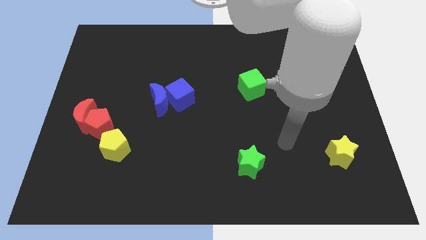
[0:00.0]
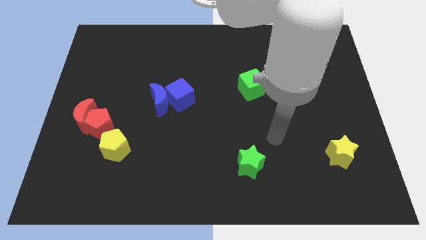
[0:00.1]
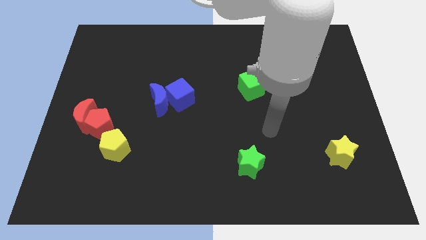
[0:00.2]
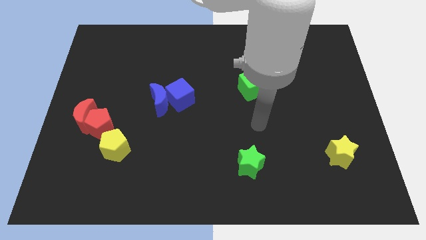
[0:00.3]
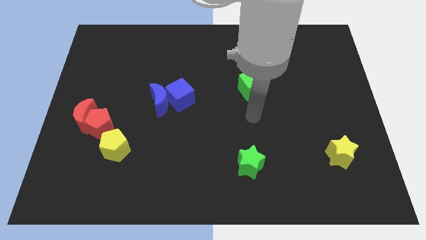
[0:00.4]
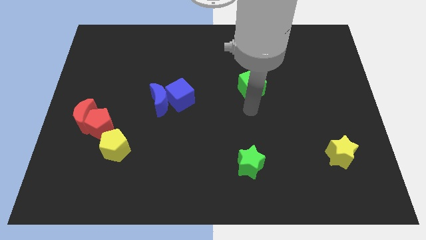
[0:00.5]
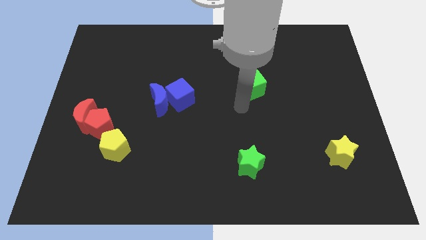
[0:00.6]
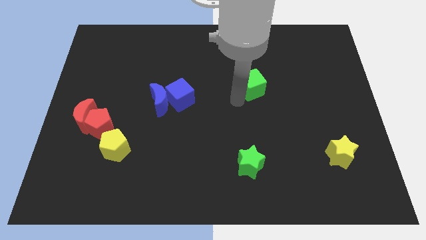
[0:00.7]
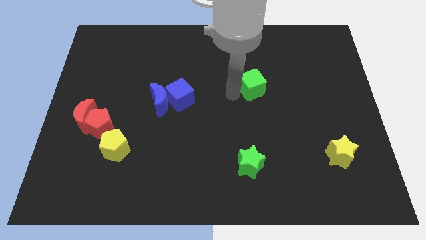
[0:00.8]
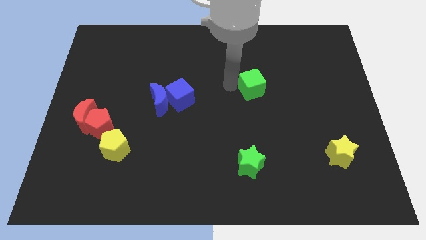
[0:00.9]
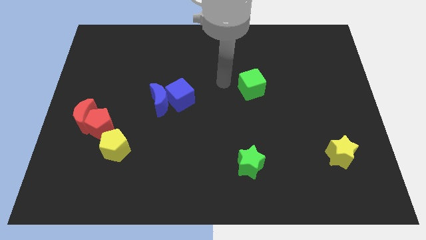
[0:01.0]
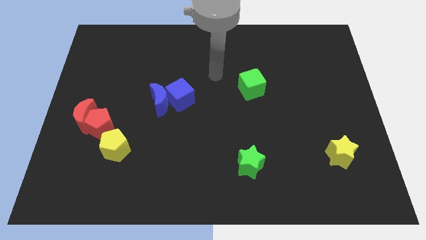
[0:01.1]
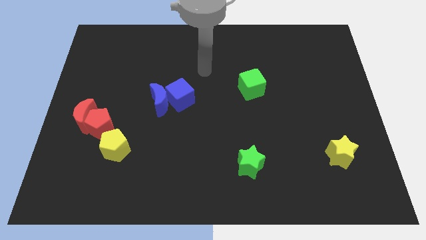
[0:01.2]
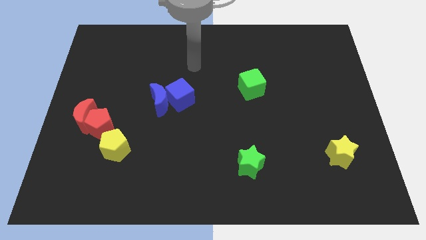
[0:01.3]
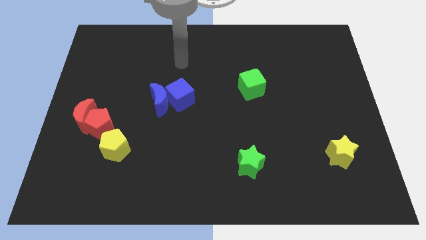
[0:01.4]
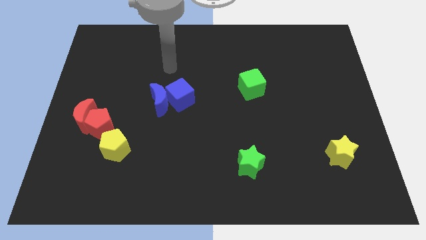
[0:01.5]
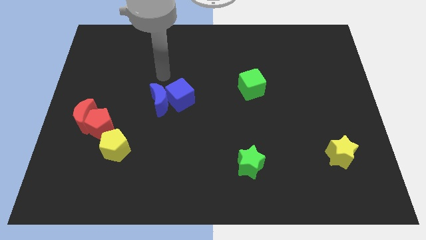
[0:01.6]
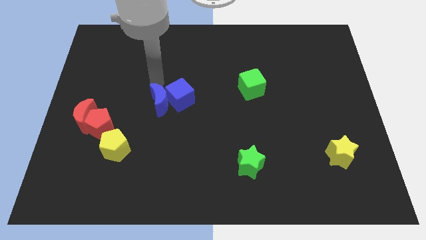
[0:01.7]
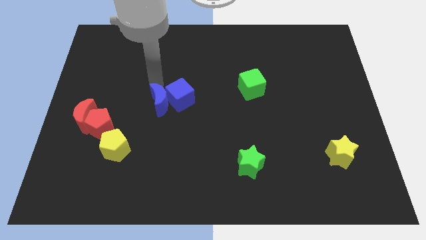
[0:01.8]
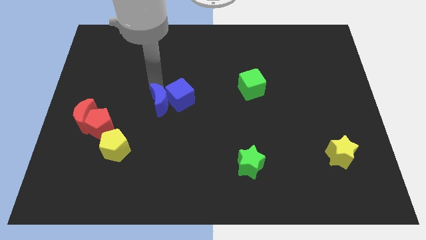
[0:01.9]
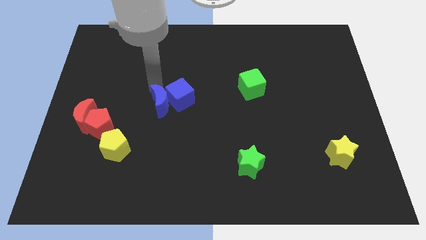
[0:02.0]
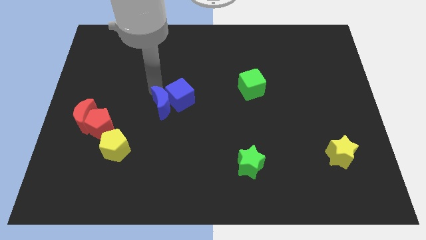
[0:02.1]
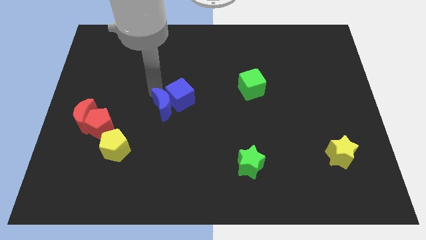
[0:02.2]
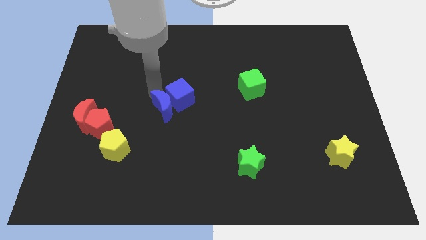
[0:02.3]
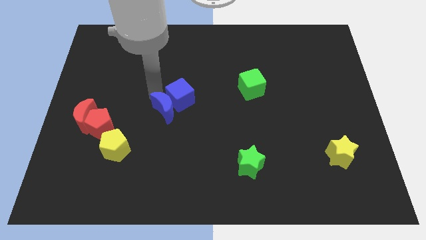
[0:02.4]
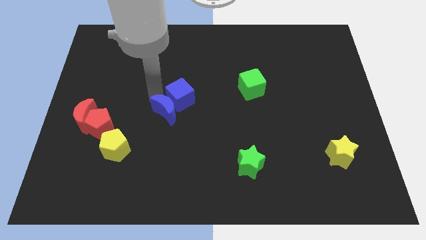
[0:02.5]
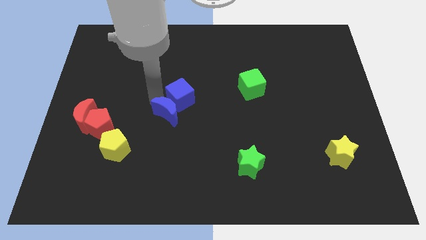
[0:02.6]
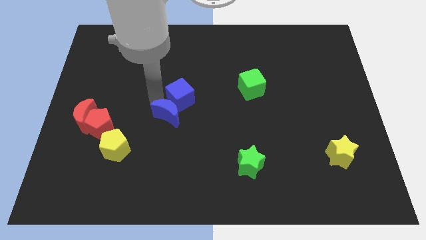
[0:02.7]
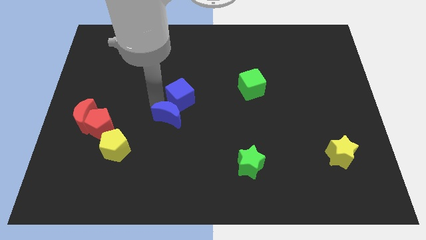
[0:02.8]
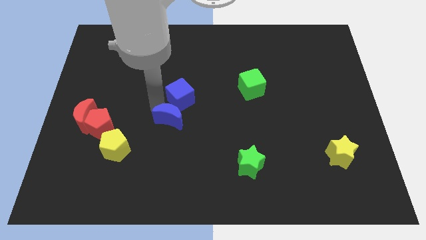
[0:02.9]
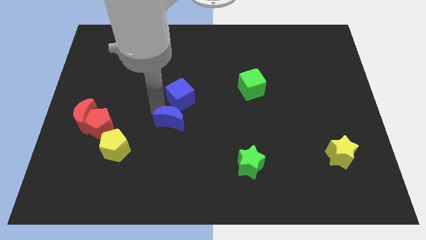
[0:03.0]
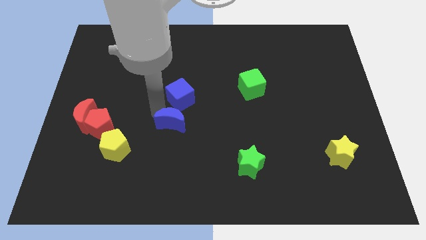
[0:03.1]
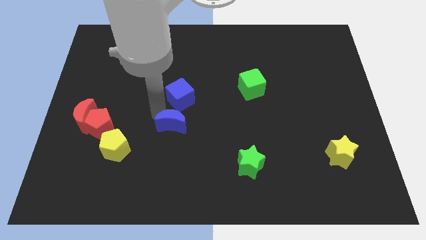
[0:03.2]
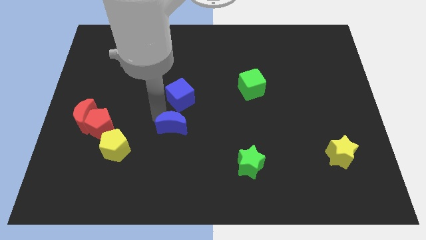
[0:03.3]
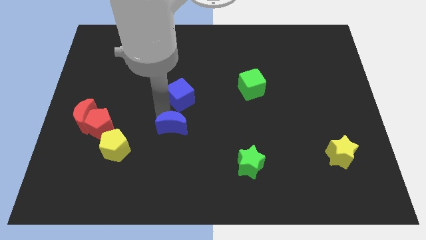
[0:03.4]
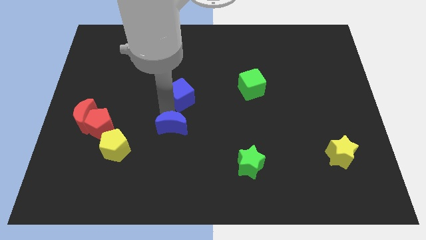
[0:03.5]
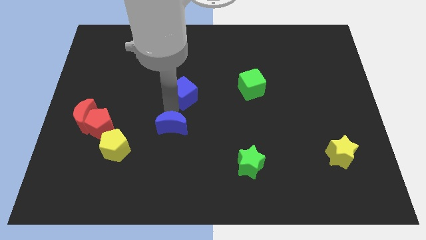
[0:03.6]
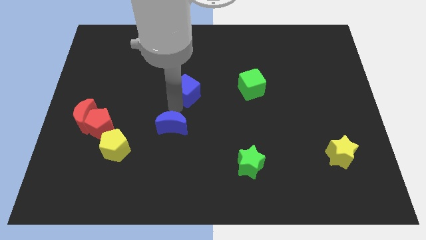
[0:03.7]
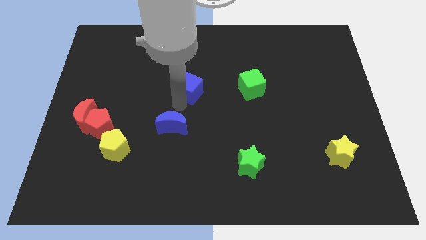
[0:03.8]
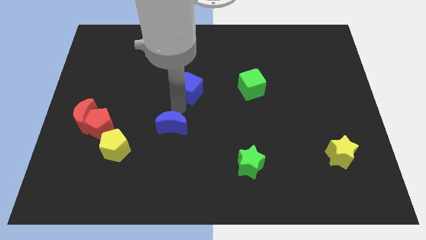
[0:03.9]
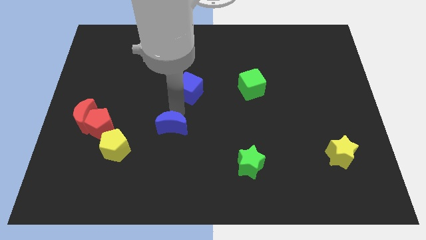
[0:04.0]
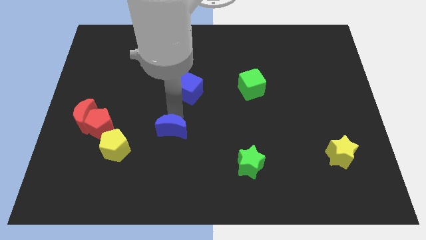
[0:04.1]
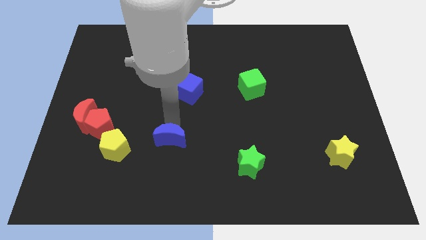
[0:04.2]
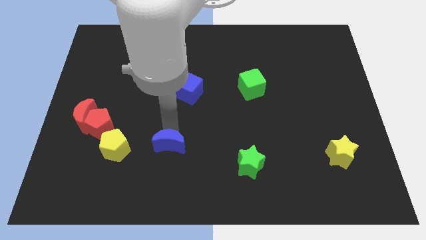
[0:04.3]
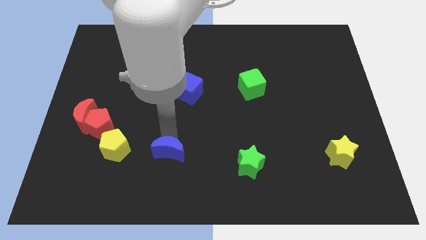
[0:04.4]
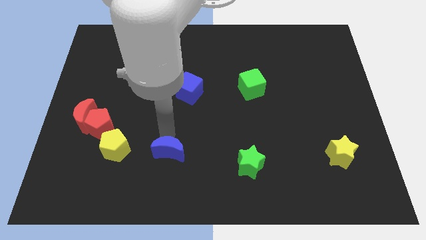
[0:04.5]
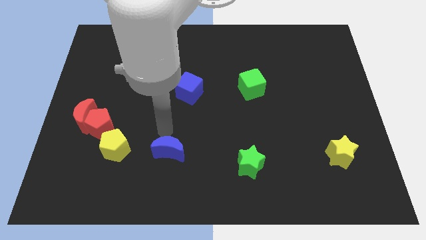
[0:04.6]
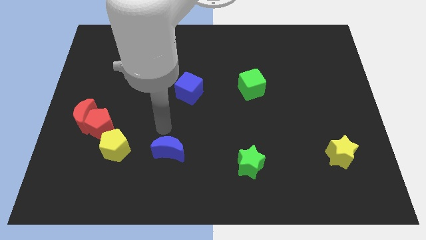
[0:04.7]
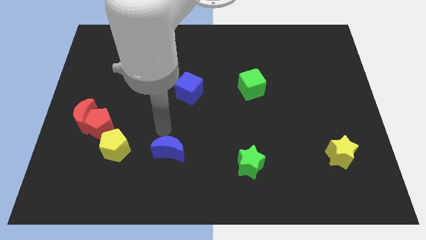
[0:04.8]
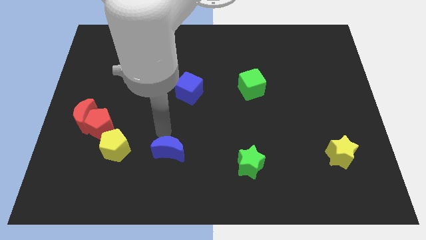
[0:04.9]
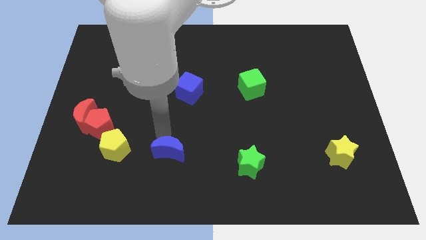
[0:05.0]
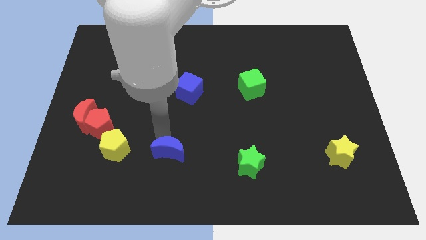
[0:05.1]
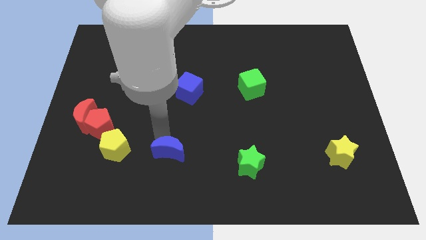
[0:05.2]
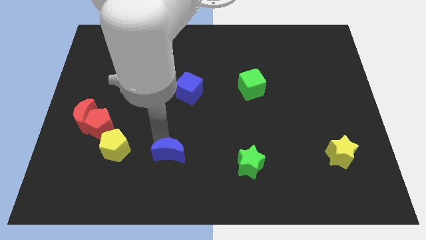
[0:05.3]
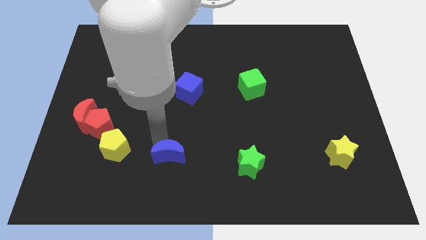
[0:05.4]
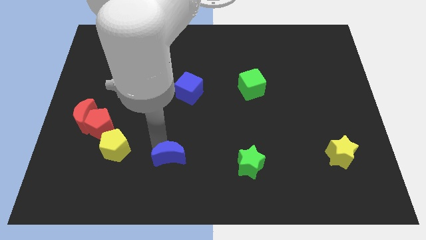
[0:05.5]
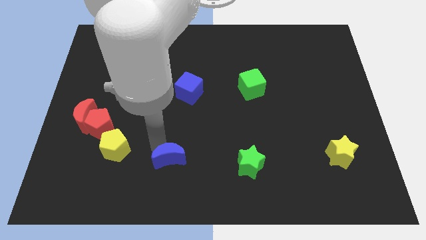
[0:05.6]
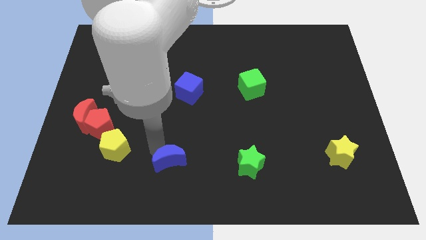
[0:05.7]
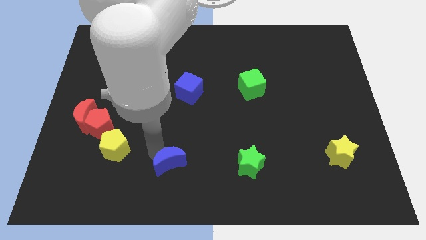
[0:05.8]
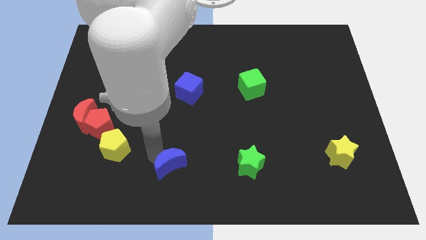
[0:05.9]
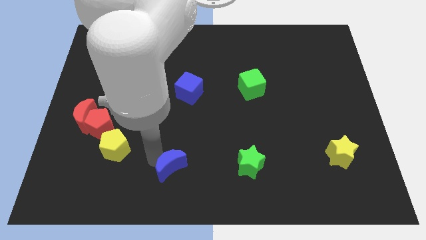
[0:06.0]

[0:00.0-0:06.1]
move the blue moon to the bottom
